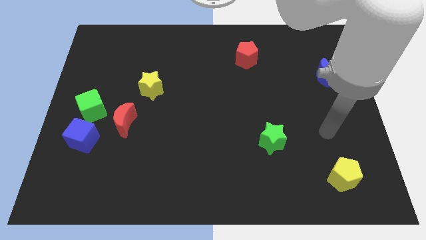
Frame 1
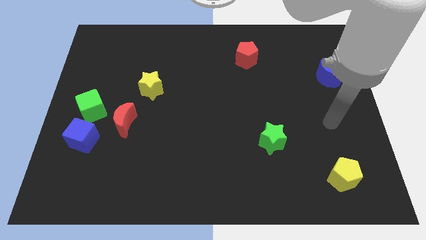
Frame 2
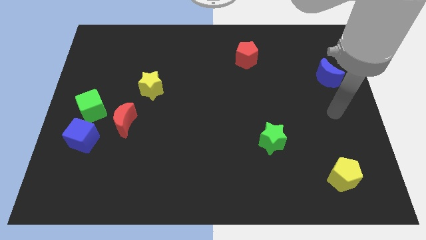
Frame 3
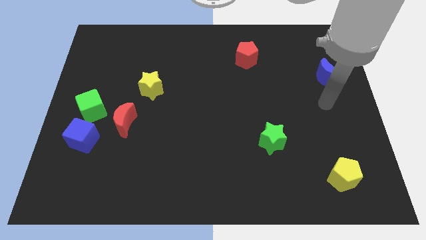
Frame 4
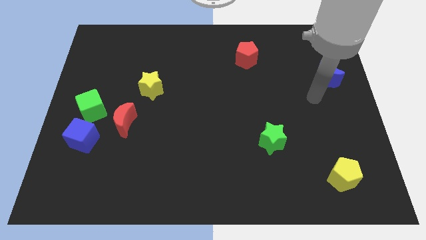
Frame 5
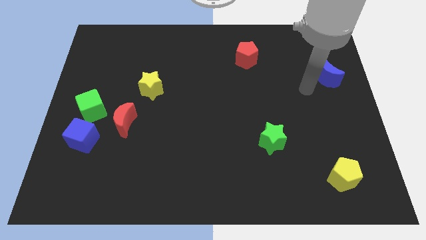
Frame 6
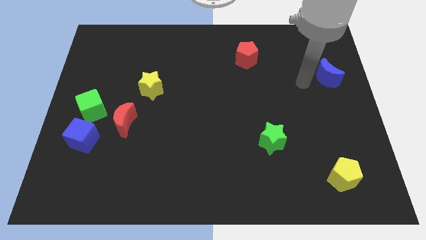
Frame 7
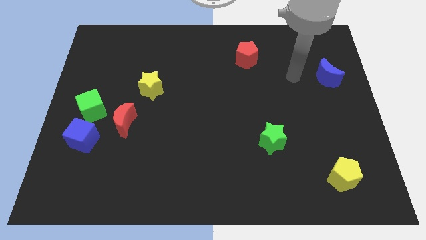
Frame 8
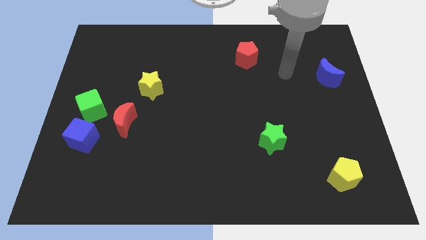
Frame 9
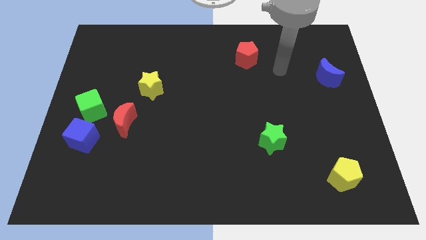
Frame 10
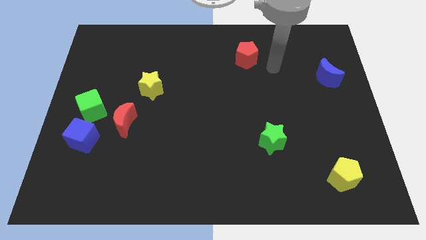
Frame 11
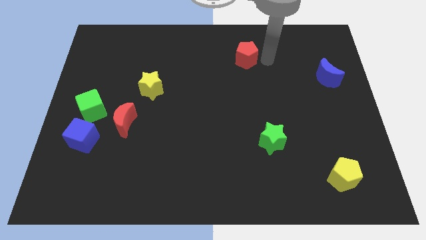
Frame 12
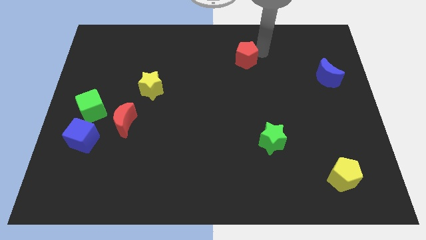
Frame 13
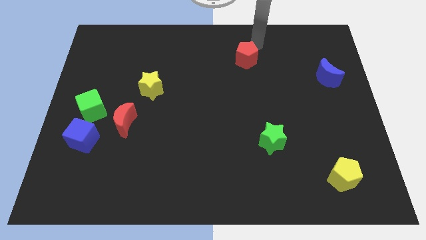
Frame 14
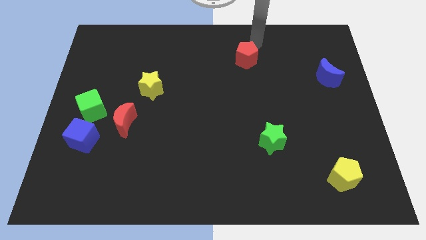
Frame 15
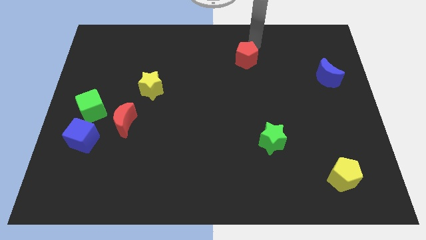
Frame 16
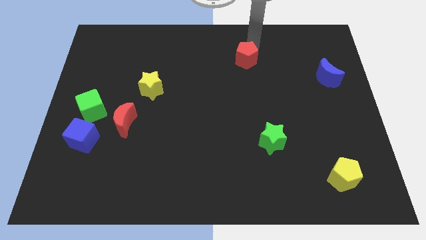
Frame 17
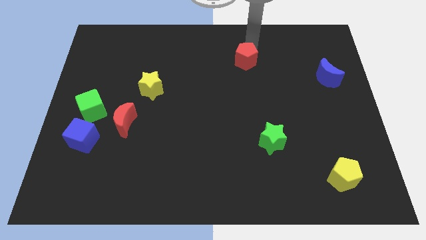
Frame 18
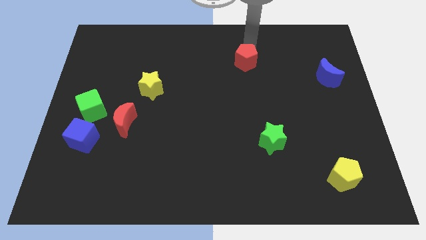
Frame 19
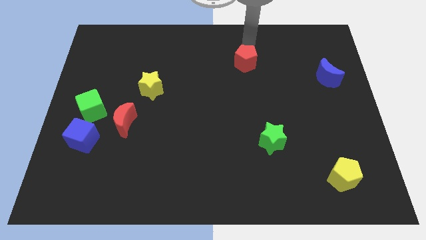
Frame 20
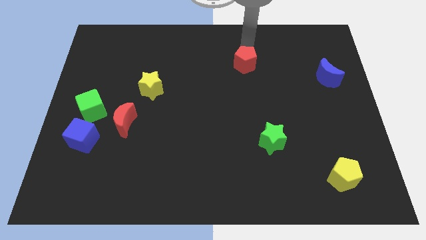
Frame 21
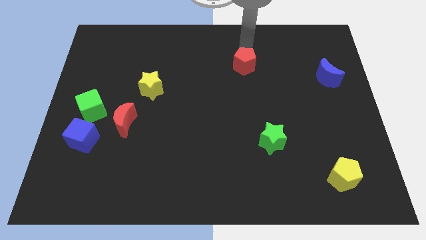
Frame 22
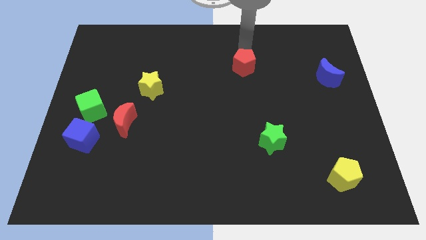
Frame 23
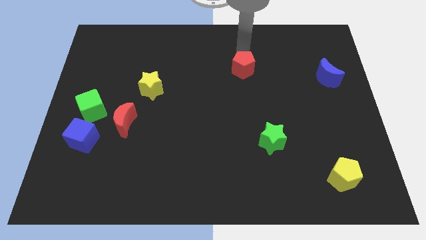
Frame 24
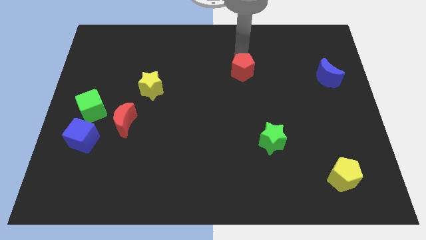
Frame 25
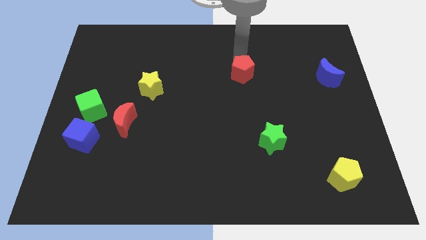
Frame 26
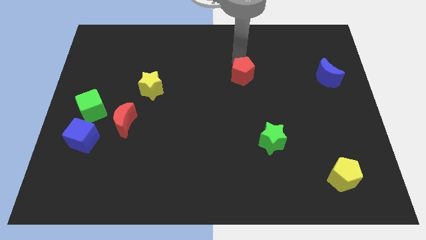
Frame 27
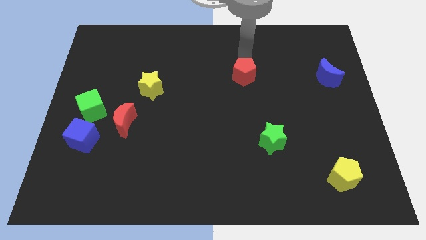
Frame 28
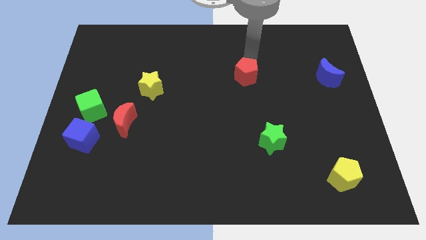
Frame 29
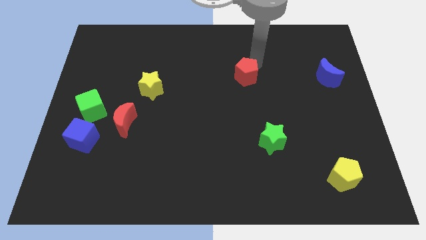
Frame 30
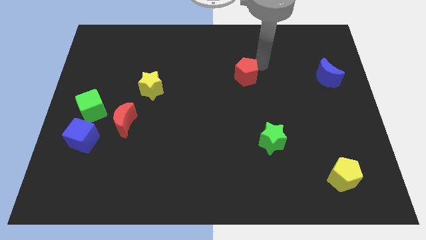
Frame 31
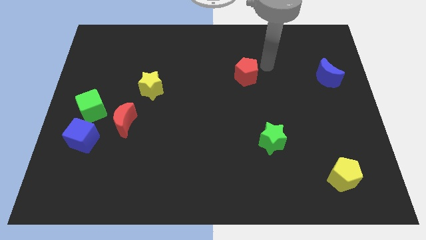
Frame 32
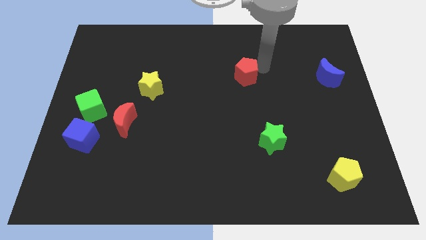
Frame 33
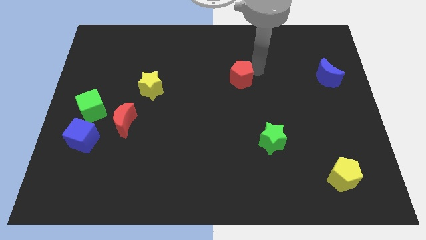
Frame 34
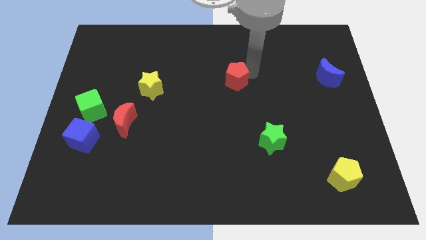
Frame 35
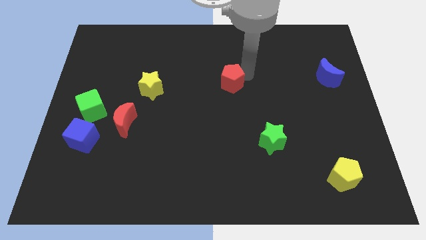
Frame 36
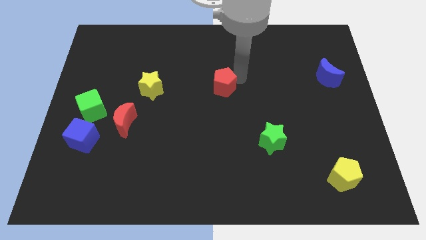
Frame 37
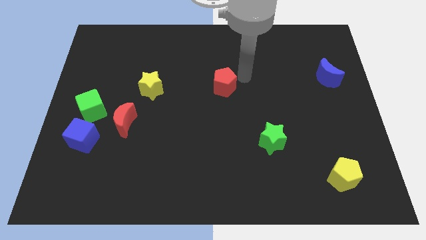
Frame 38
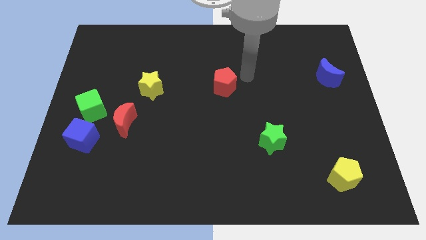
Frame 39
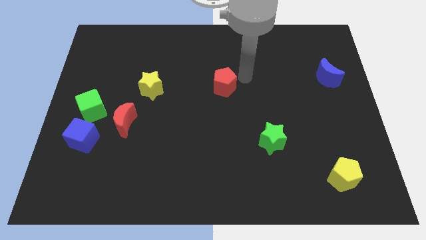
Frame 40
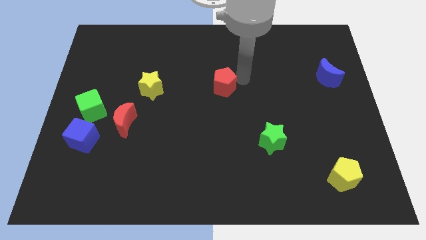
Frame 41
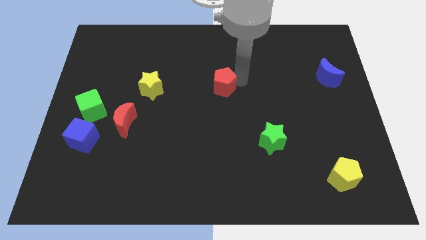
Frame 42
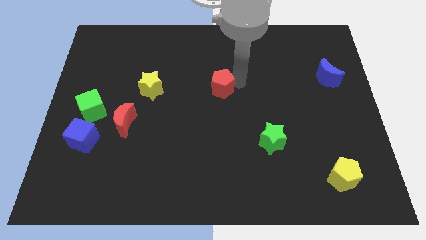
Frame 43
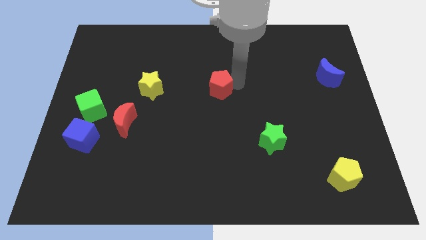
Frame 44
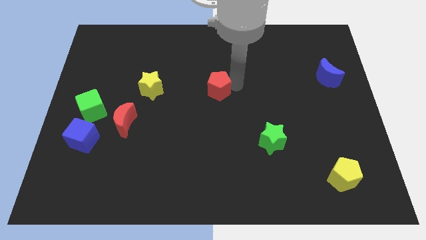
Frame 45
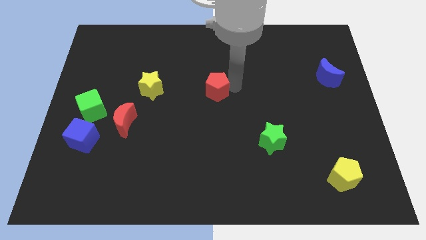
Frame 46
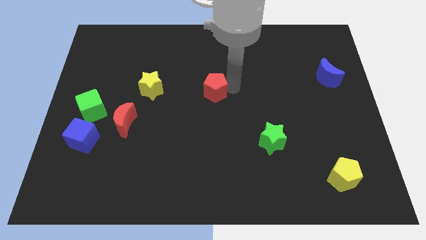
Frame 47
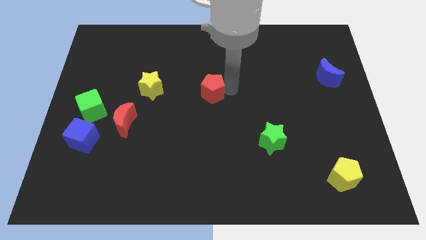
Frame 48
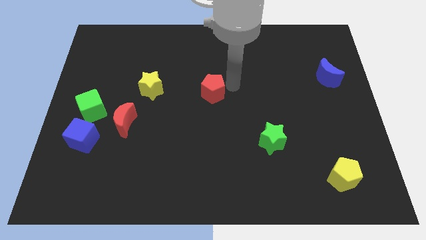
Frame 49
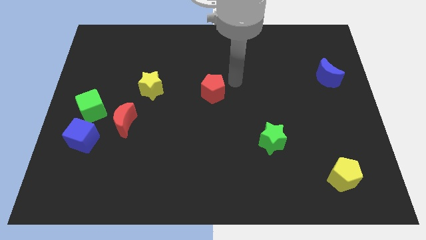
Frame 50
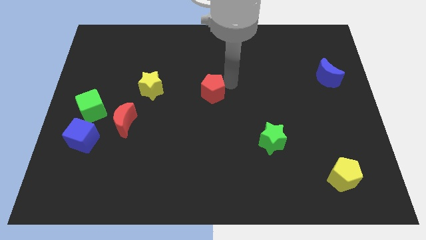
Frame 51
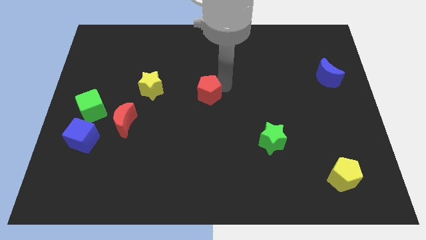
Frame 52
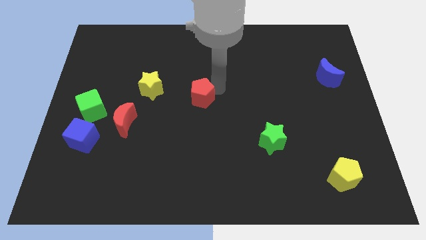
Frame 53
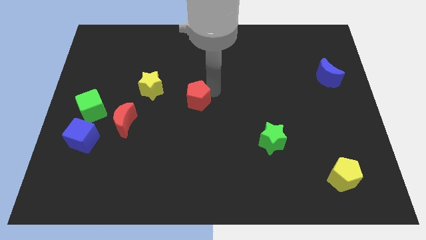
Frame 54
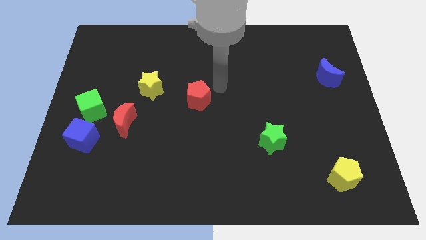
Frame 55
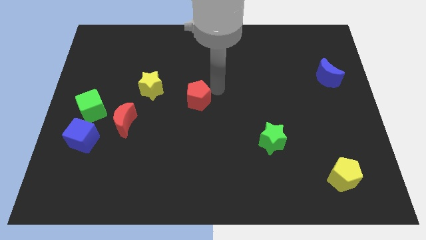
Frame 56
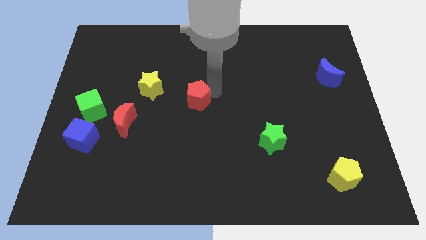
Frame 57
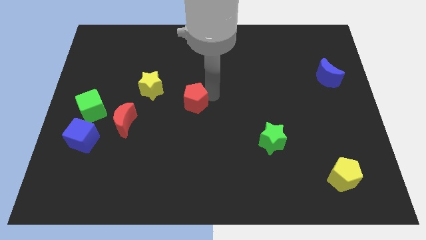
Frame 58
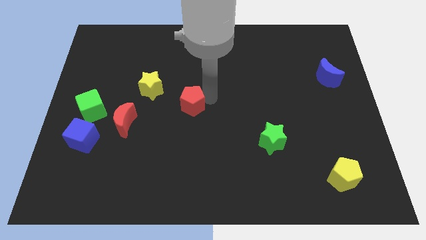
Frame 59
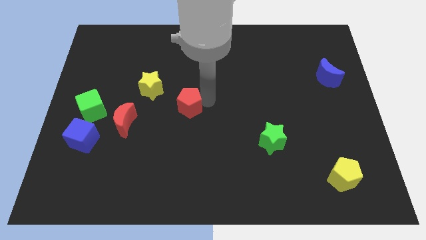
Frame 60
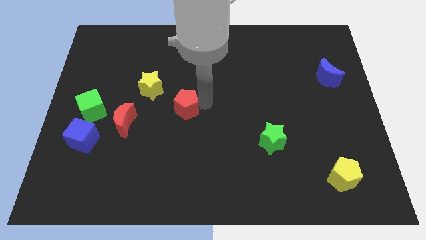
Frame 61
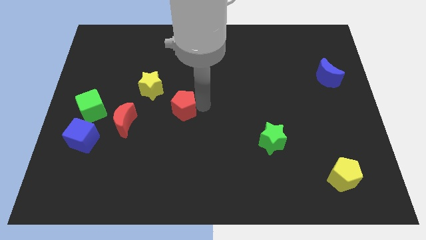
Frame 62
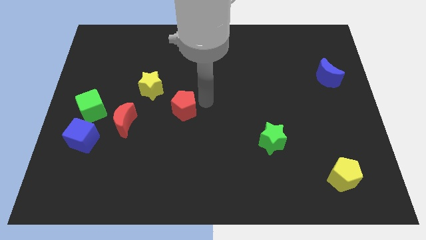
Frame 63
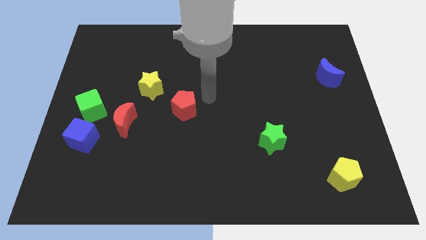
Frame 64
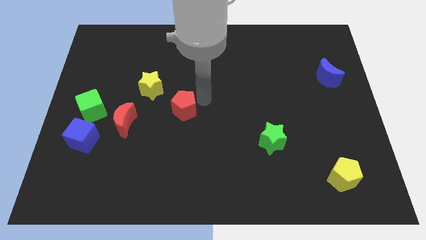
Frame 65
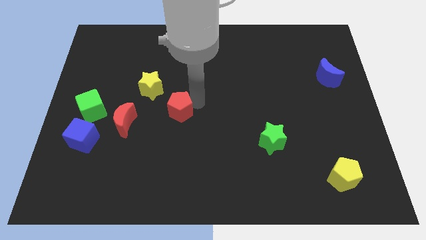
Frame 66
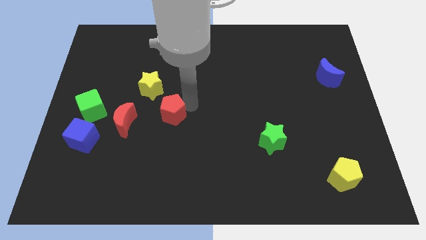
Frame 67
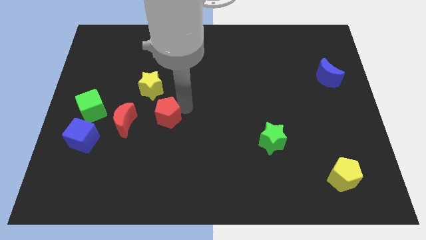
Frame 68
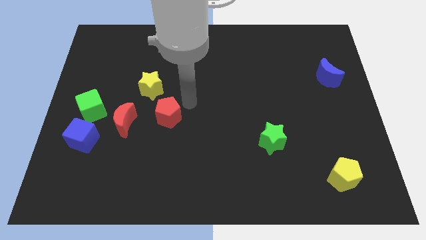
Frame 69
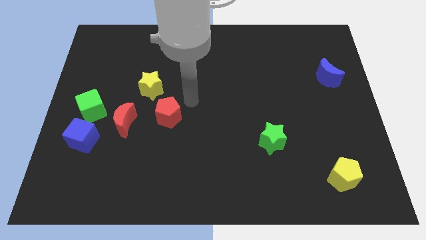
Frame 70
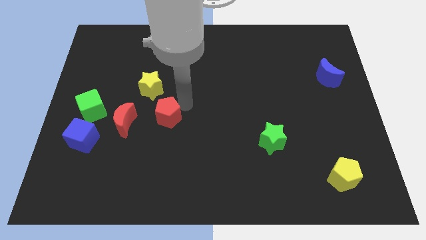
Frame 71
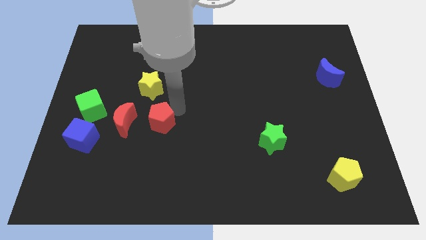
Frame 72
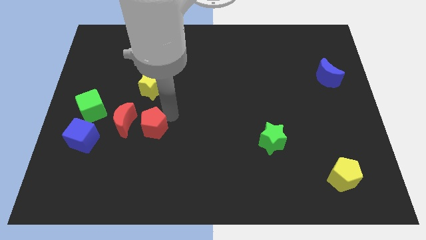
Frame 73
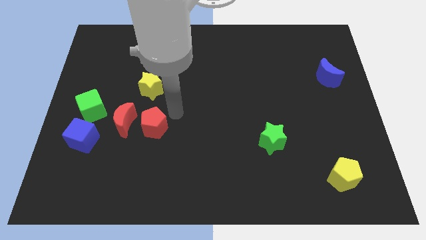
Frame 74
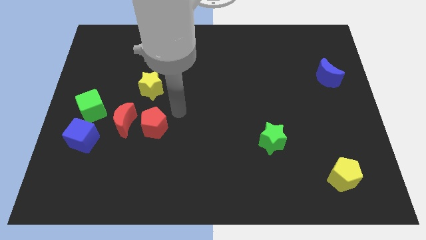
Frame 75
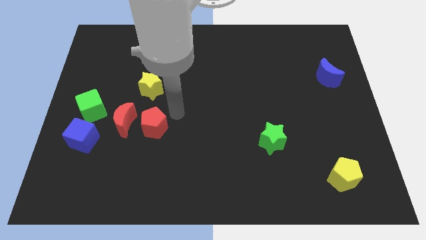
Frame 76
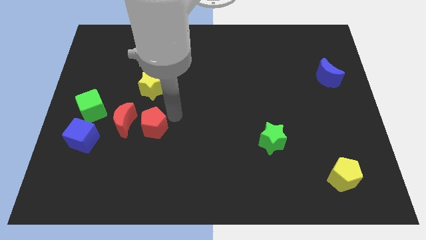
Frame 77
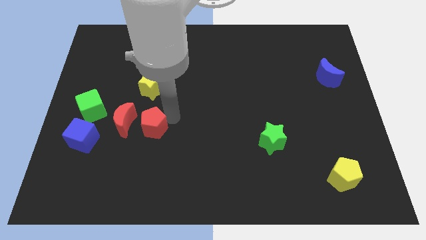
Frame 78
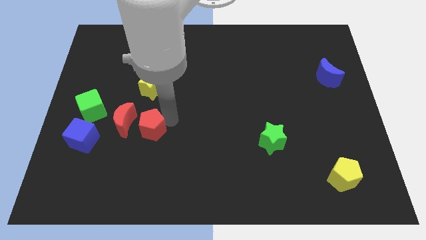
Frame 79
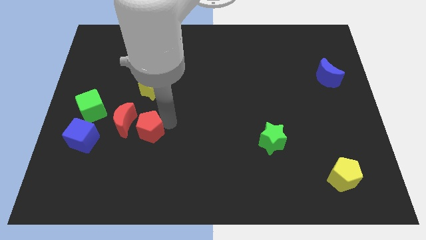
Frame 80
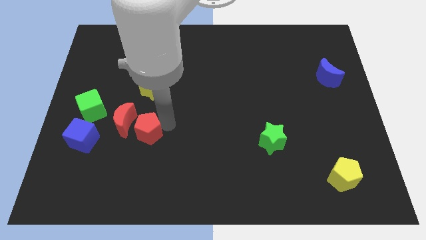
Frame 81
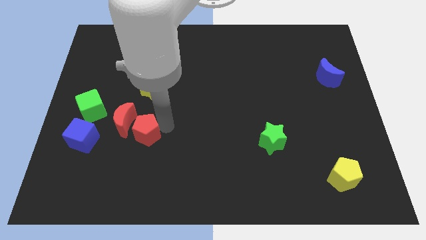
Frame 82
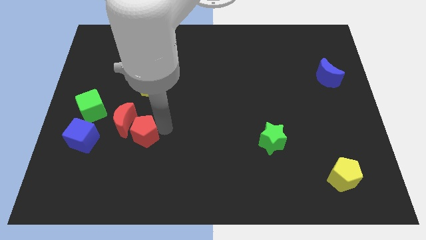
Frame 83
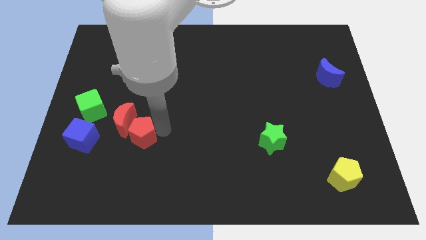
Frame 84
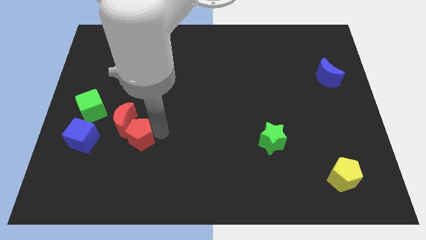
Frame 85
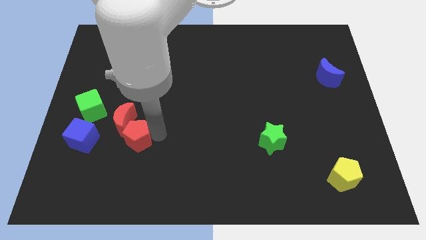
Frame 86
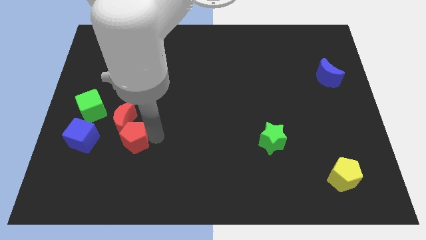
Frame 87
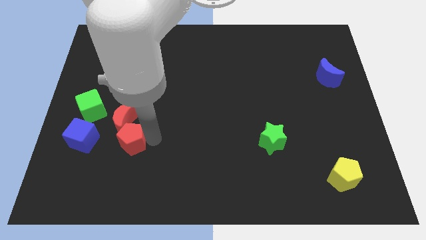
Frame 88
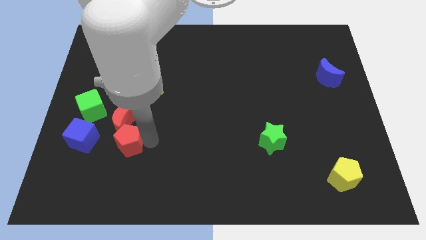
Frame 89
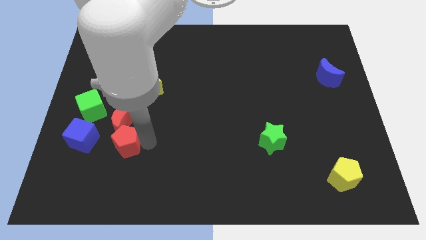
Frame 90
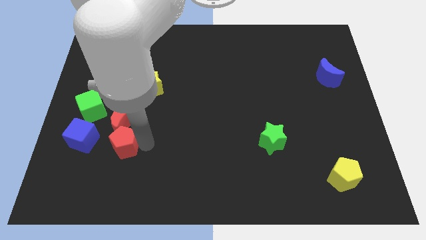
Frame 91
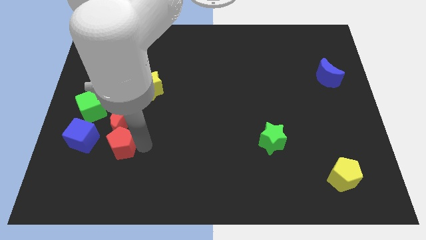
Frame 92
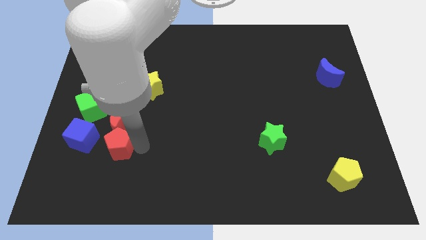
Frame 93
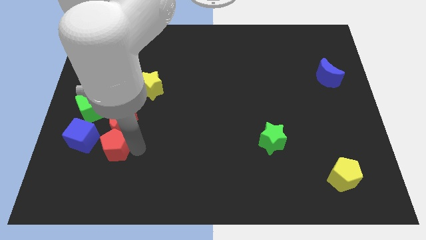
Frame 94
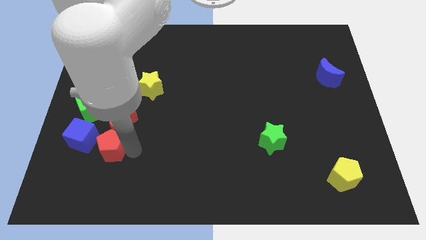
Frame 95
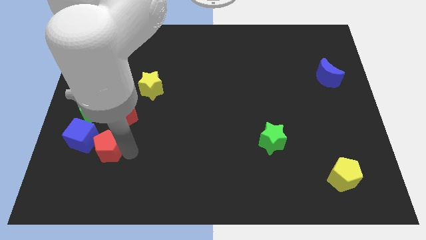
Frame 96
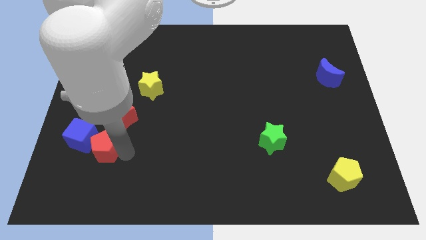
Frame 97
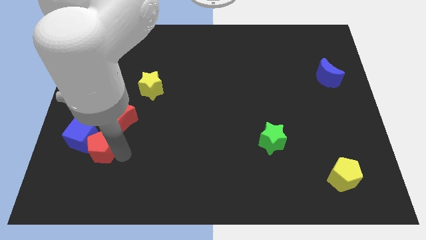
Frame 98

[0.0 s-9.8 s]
put the red pentagon to the blue cube
